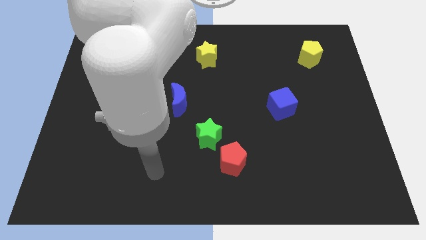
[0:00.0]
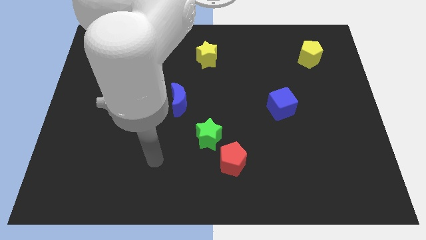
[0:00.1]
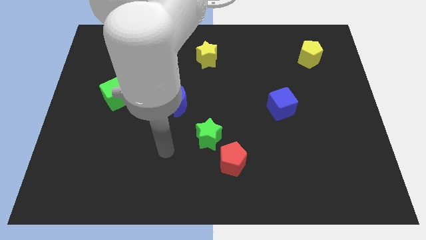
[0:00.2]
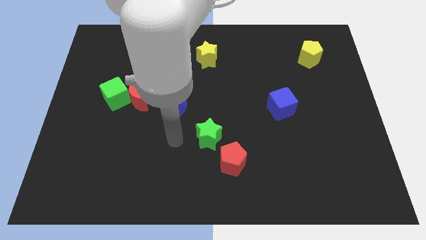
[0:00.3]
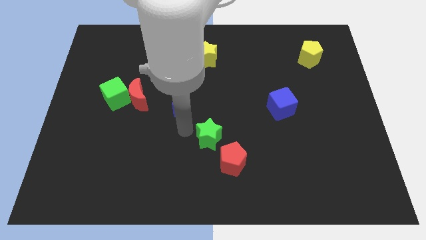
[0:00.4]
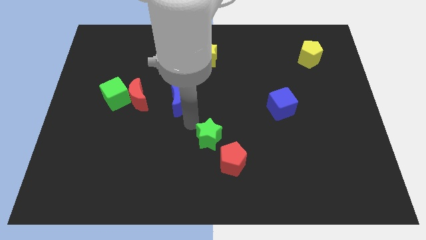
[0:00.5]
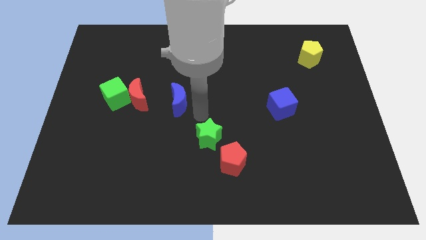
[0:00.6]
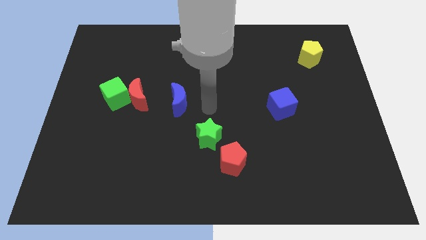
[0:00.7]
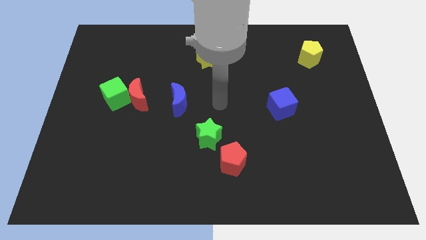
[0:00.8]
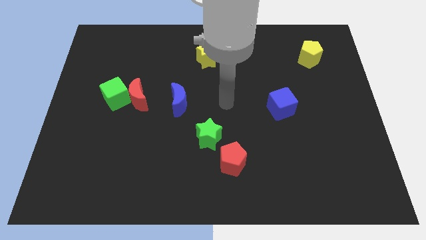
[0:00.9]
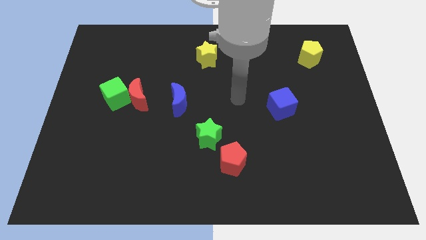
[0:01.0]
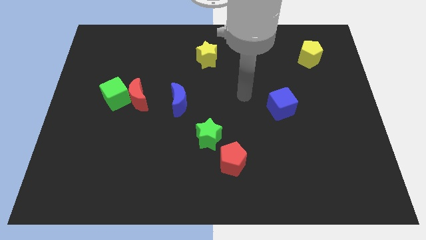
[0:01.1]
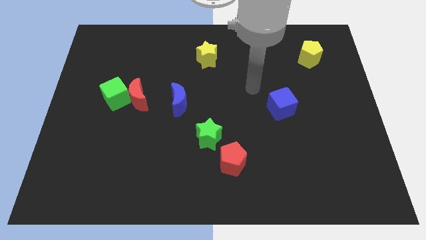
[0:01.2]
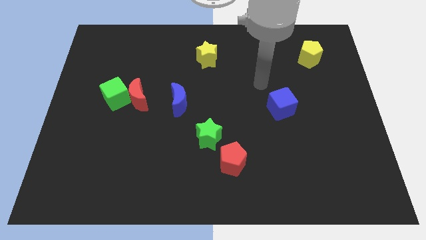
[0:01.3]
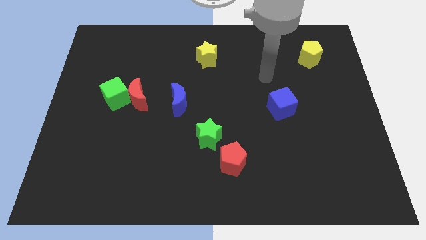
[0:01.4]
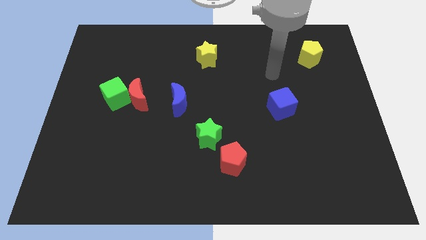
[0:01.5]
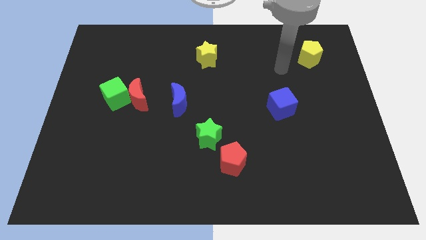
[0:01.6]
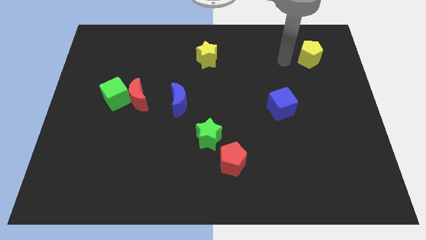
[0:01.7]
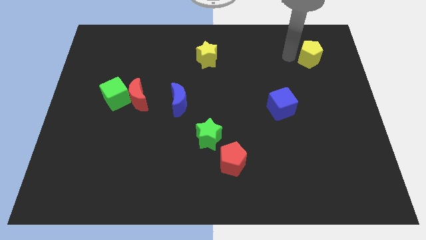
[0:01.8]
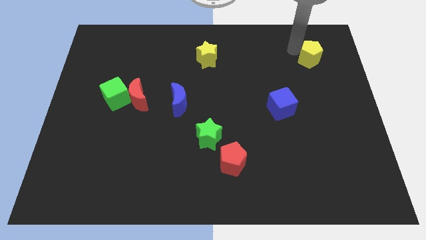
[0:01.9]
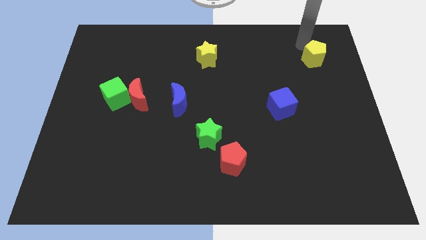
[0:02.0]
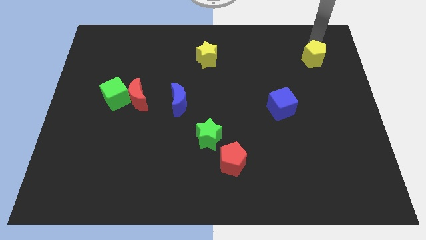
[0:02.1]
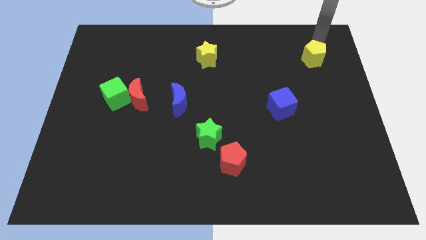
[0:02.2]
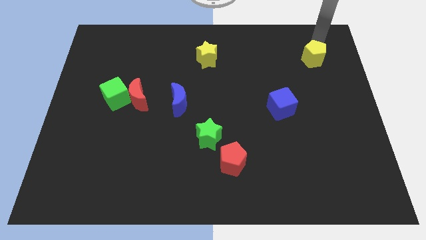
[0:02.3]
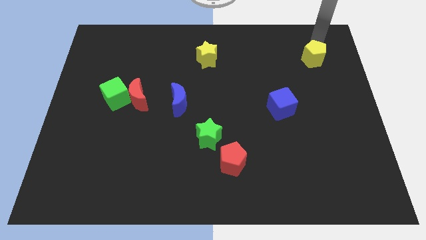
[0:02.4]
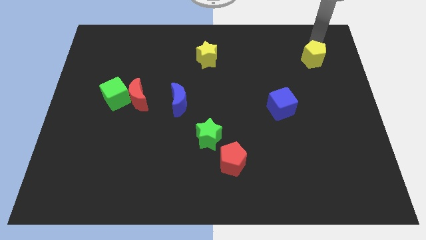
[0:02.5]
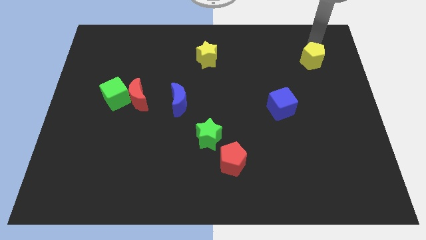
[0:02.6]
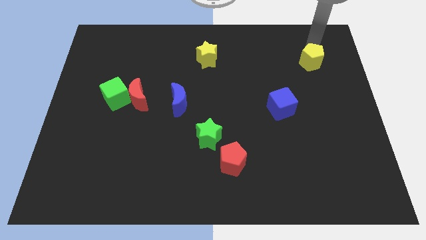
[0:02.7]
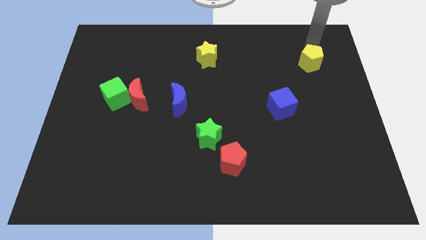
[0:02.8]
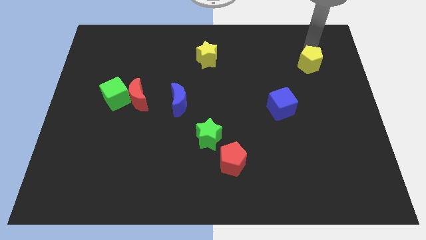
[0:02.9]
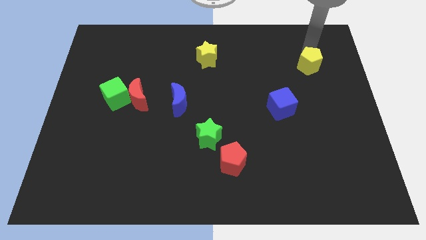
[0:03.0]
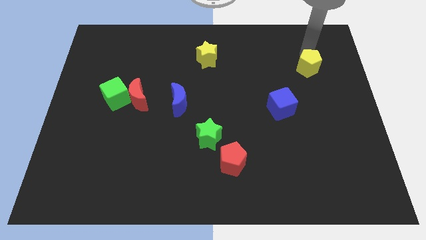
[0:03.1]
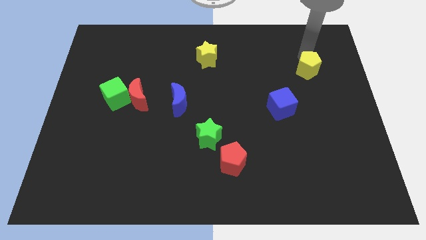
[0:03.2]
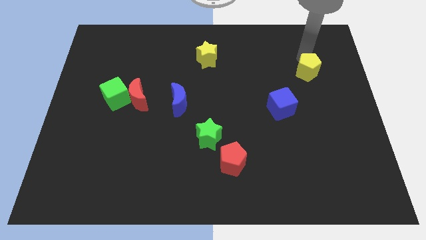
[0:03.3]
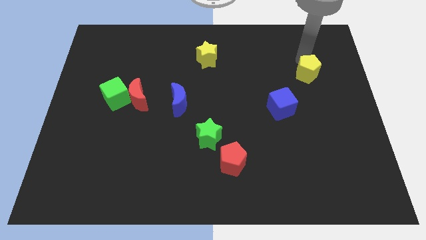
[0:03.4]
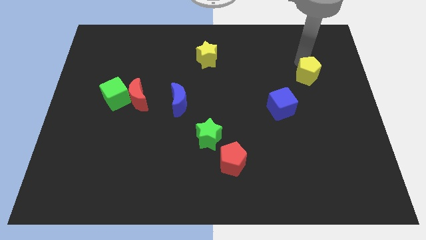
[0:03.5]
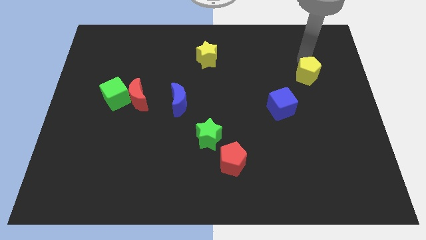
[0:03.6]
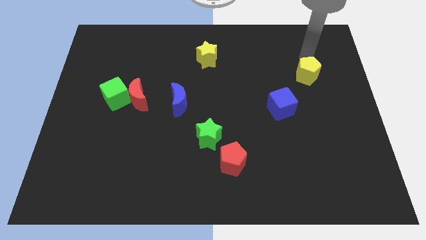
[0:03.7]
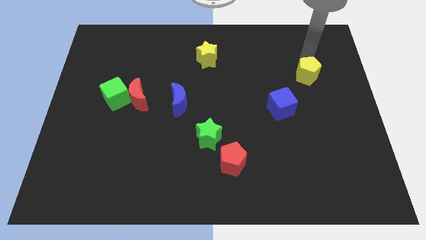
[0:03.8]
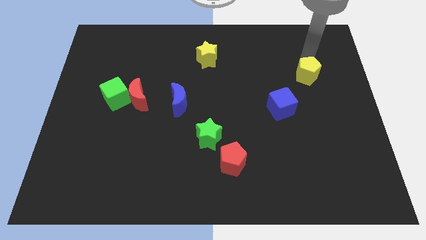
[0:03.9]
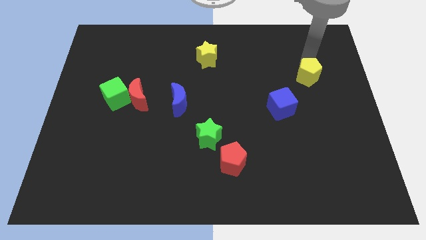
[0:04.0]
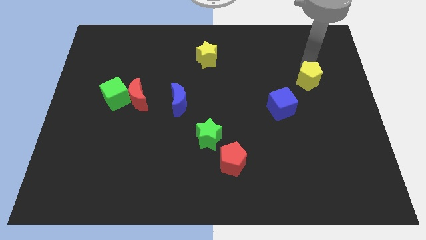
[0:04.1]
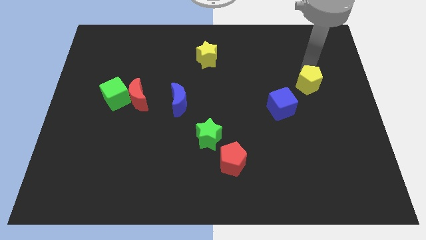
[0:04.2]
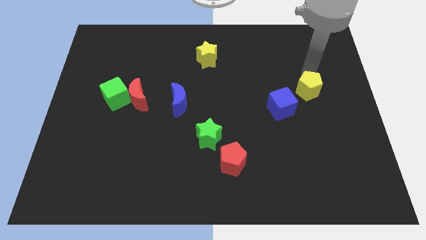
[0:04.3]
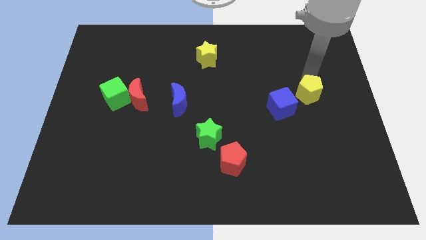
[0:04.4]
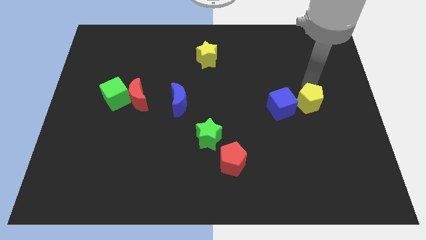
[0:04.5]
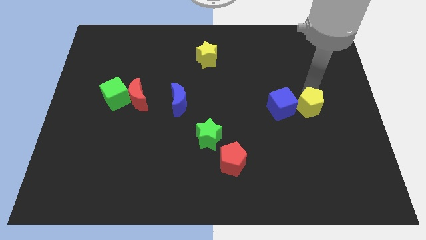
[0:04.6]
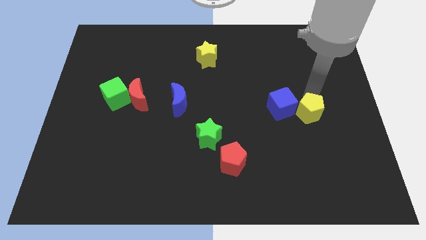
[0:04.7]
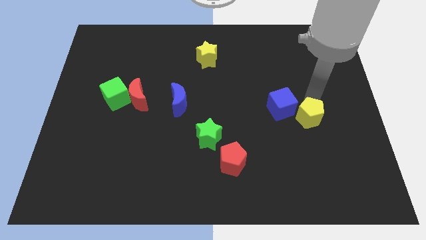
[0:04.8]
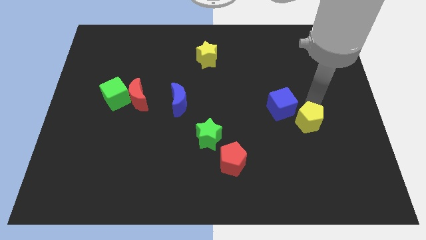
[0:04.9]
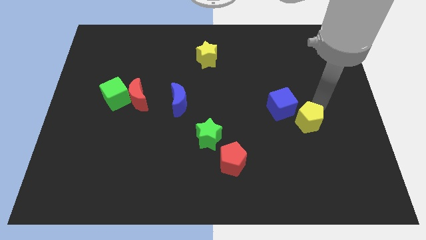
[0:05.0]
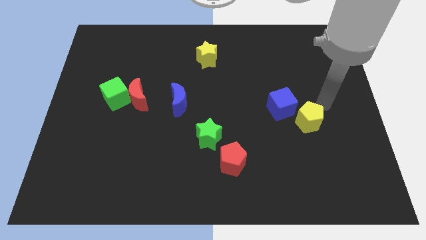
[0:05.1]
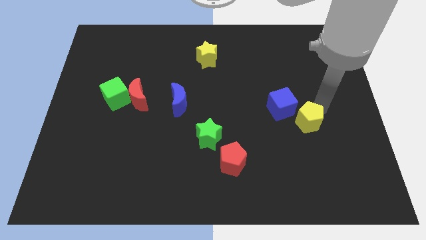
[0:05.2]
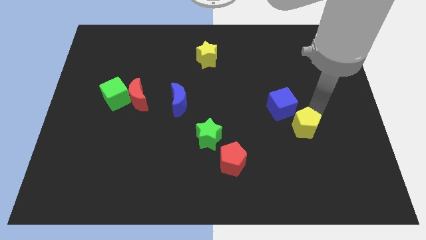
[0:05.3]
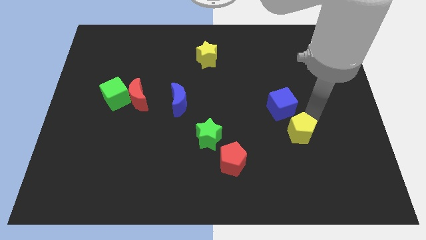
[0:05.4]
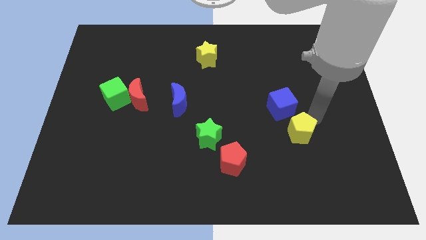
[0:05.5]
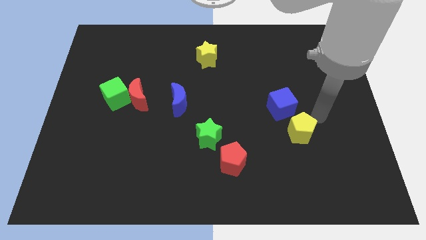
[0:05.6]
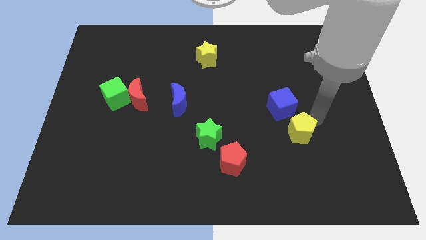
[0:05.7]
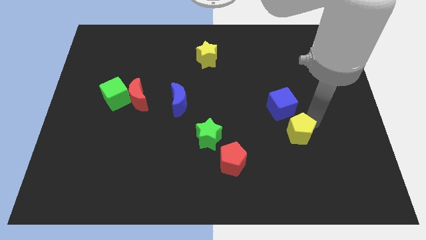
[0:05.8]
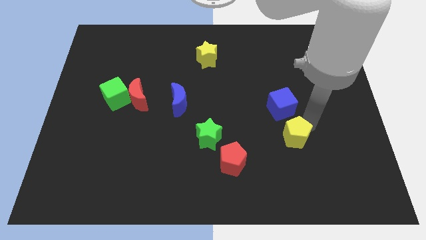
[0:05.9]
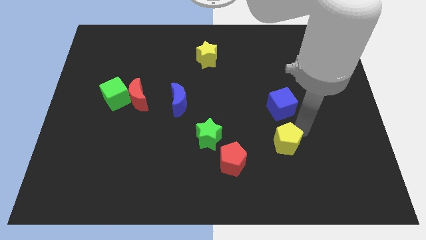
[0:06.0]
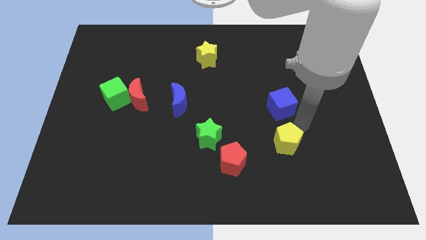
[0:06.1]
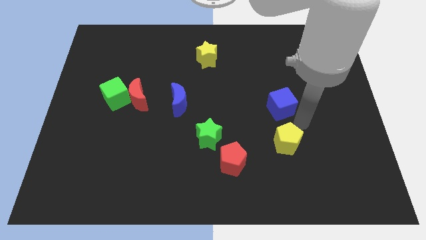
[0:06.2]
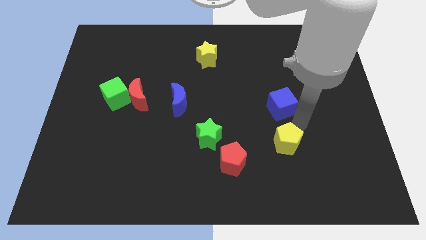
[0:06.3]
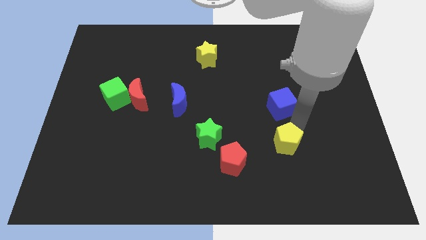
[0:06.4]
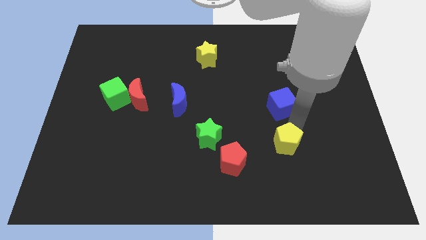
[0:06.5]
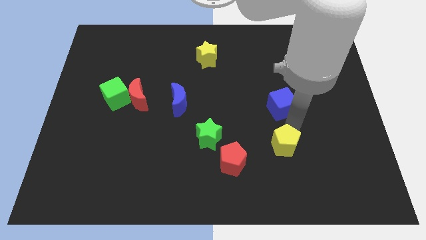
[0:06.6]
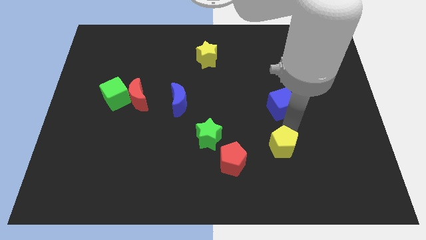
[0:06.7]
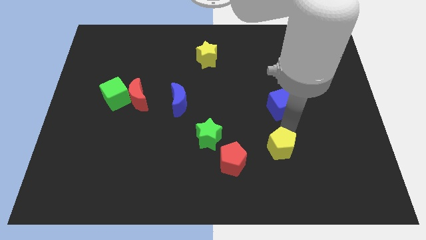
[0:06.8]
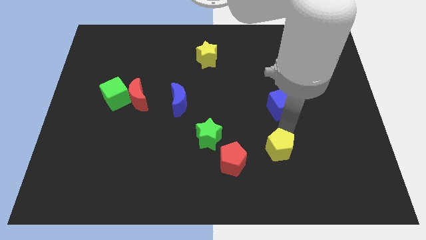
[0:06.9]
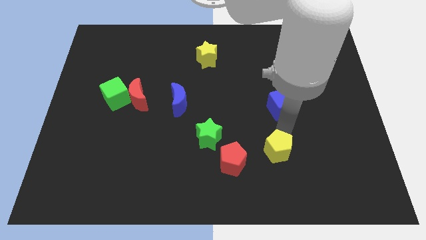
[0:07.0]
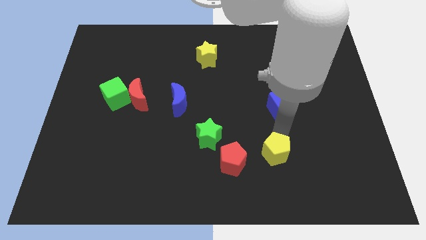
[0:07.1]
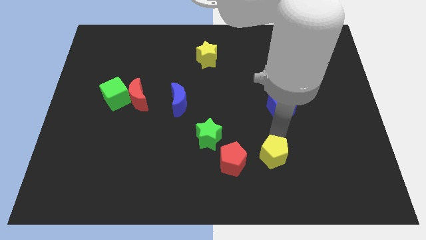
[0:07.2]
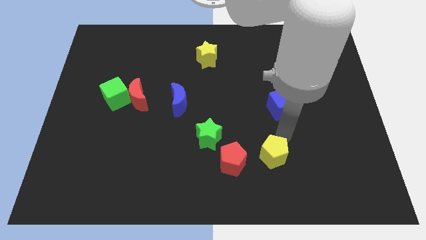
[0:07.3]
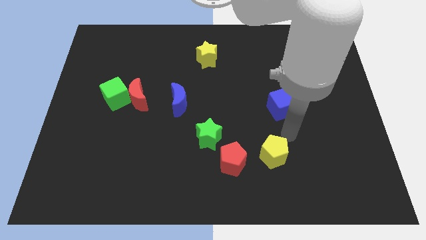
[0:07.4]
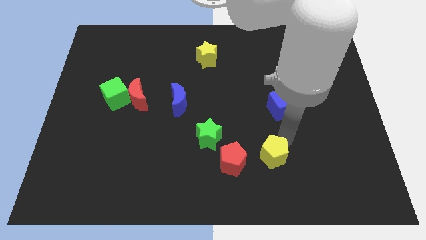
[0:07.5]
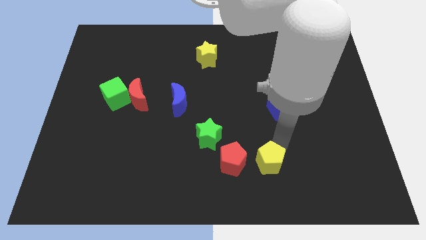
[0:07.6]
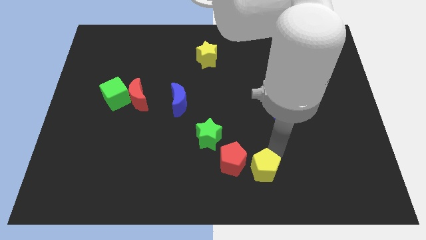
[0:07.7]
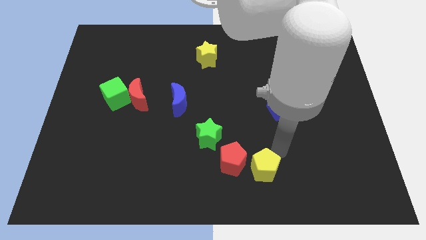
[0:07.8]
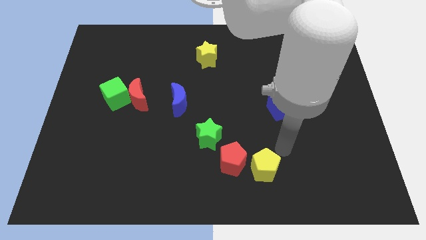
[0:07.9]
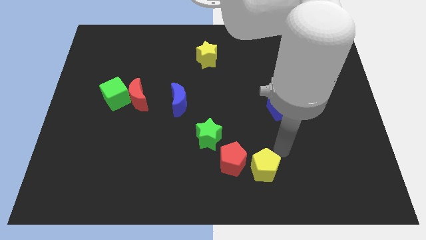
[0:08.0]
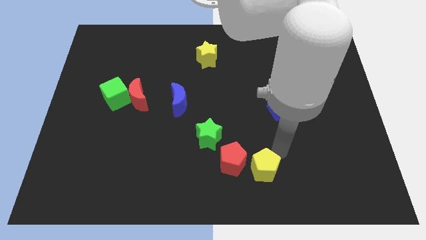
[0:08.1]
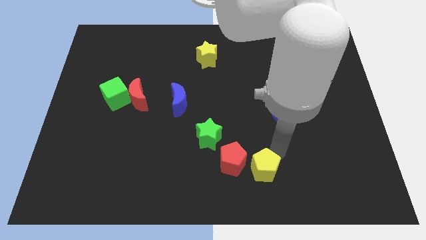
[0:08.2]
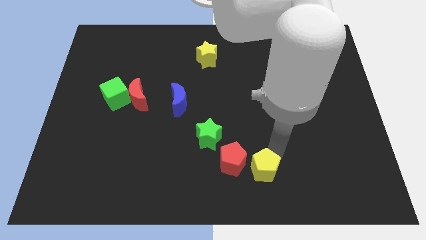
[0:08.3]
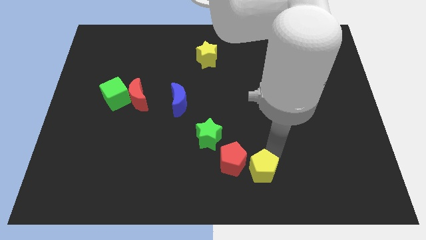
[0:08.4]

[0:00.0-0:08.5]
push the yellow pentagon to the bottom
